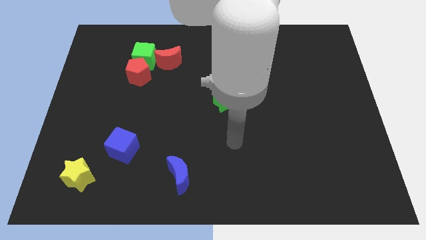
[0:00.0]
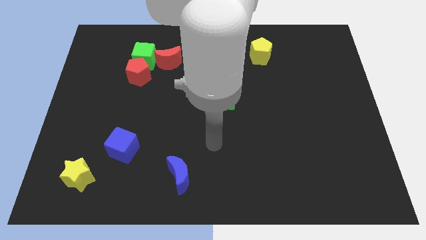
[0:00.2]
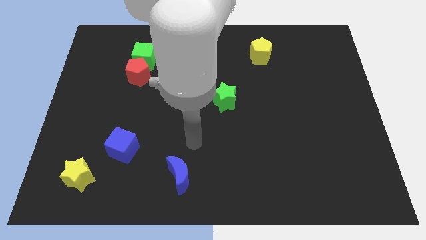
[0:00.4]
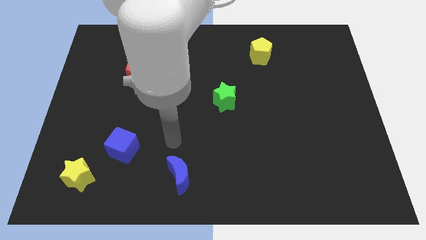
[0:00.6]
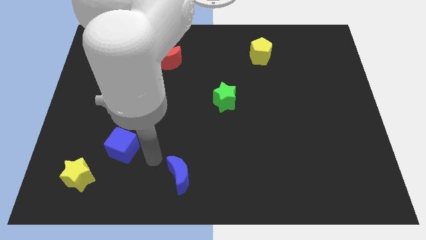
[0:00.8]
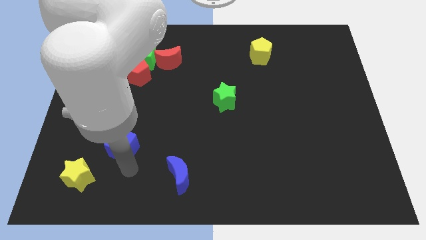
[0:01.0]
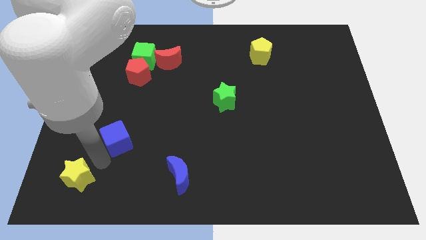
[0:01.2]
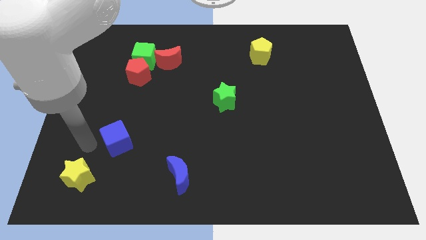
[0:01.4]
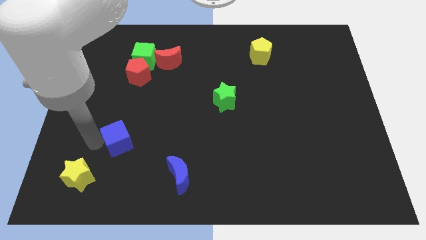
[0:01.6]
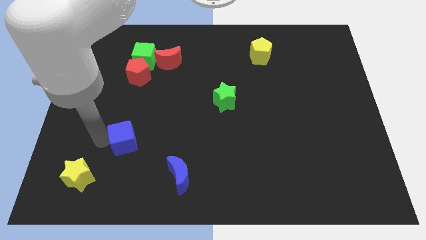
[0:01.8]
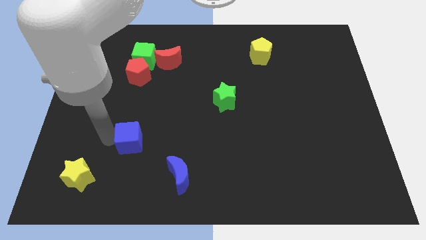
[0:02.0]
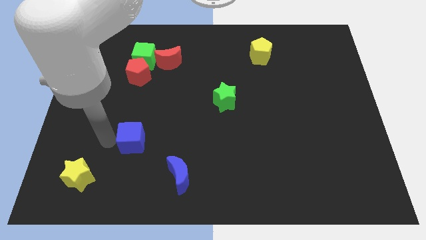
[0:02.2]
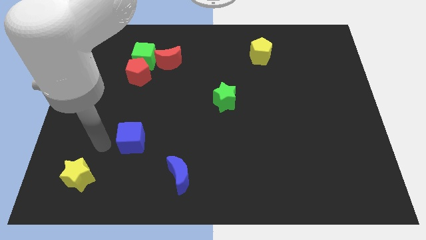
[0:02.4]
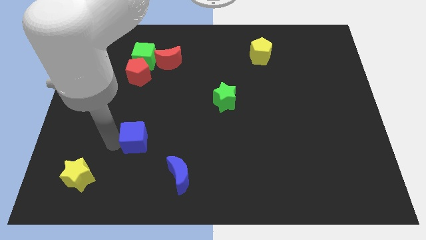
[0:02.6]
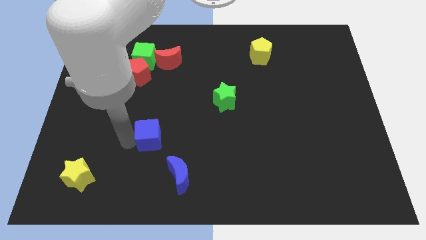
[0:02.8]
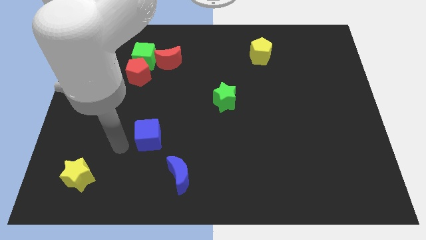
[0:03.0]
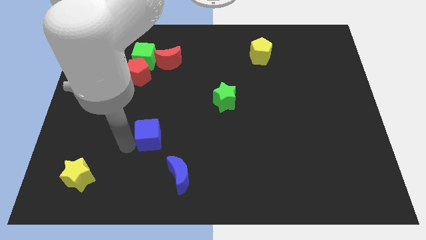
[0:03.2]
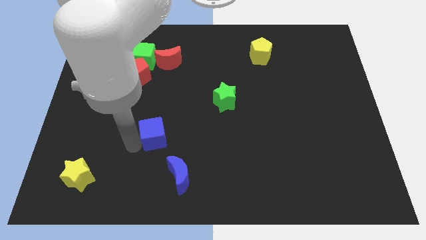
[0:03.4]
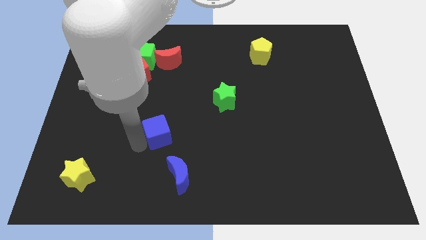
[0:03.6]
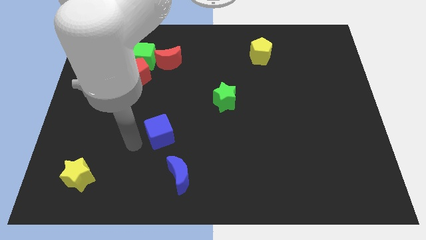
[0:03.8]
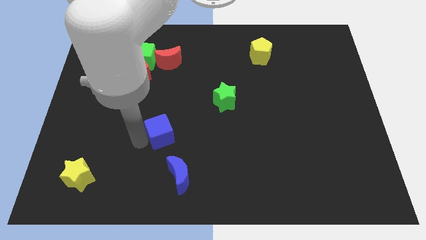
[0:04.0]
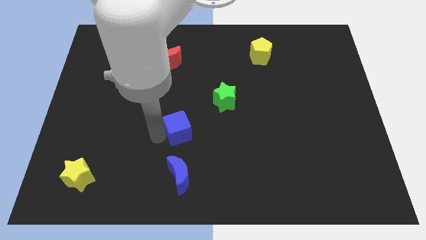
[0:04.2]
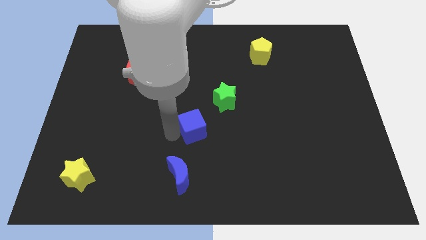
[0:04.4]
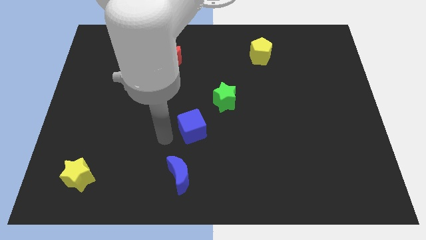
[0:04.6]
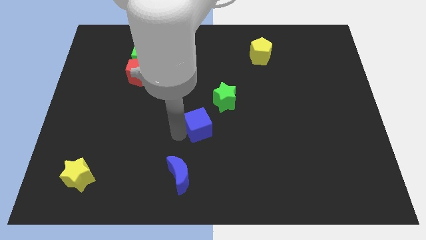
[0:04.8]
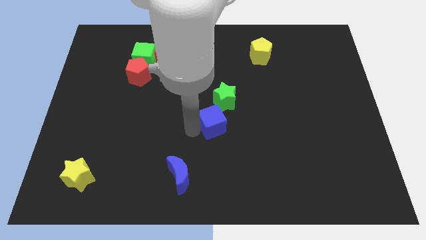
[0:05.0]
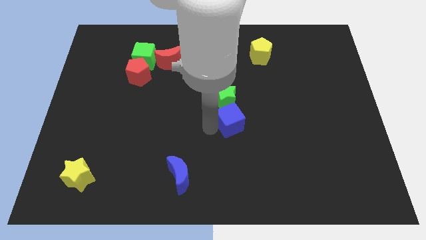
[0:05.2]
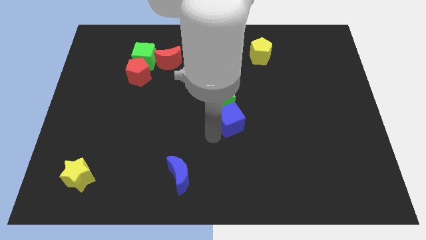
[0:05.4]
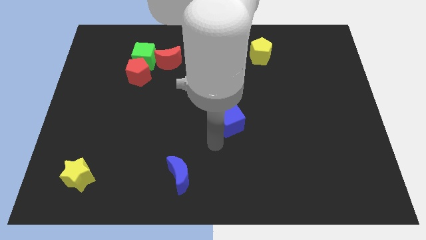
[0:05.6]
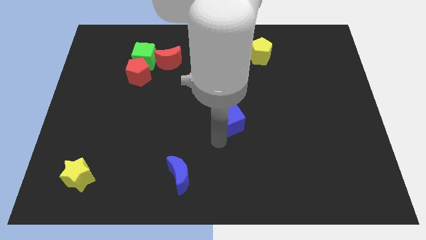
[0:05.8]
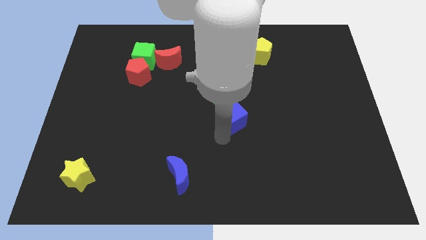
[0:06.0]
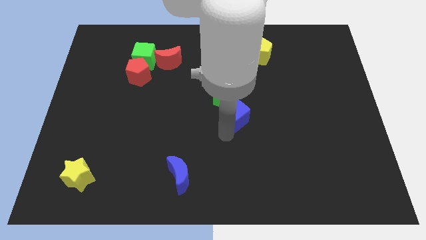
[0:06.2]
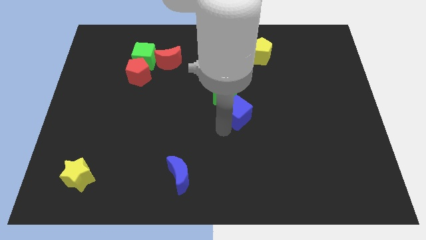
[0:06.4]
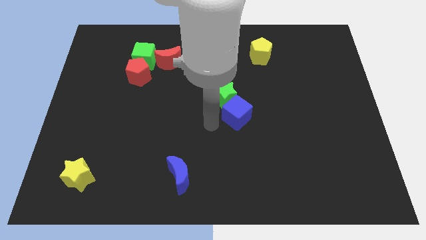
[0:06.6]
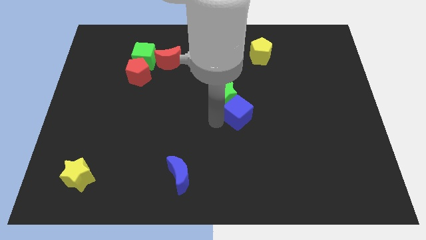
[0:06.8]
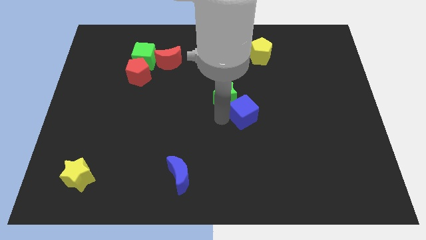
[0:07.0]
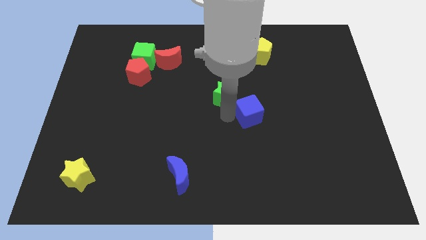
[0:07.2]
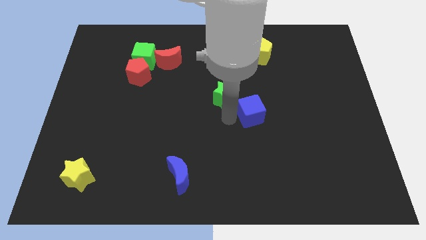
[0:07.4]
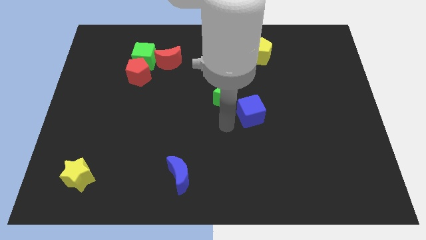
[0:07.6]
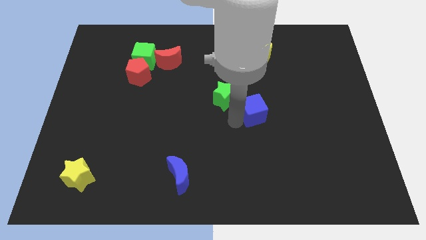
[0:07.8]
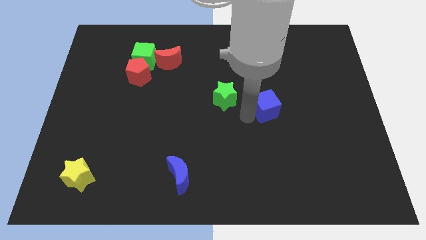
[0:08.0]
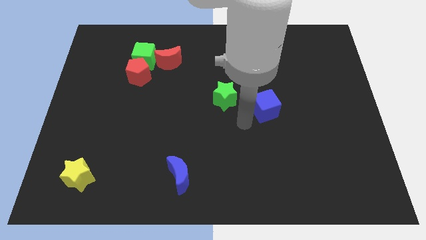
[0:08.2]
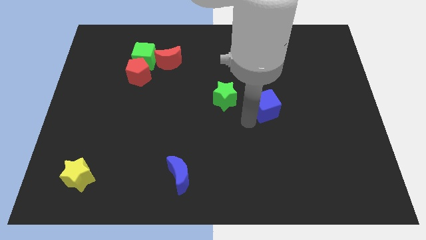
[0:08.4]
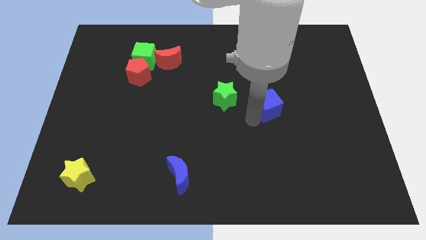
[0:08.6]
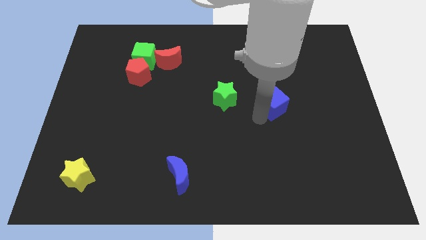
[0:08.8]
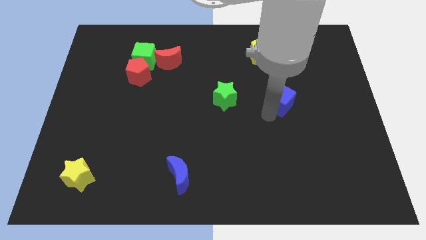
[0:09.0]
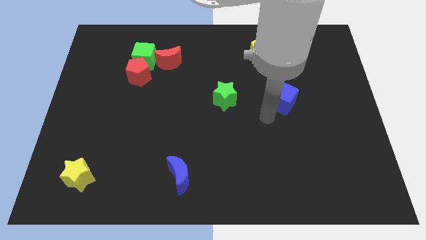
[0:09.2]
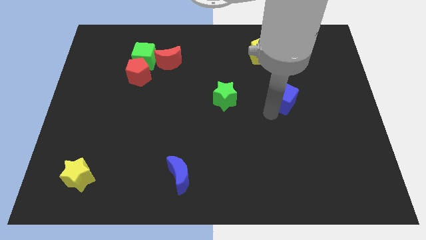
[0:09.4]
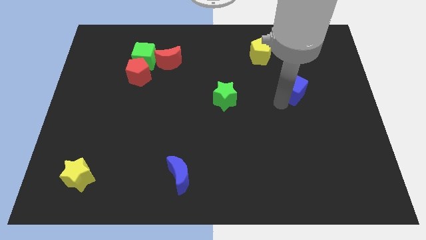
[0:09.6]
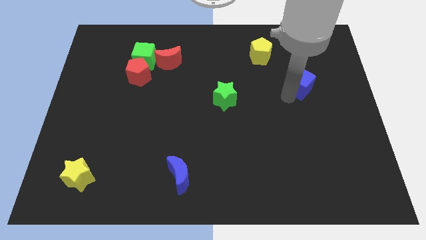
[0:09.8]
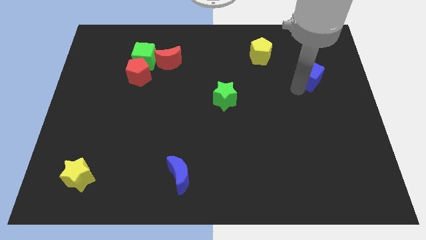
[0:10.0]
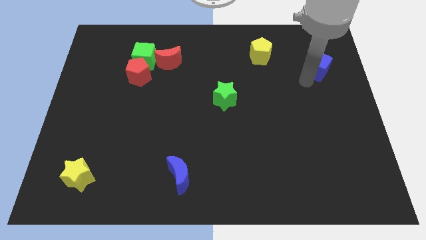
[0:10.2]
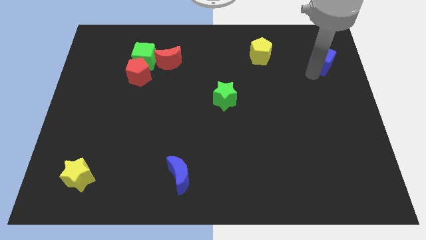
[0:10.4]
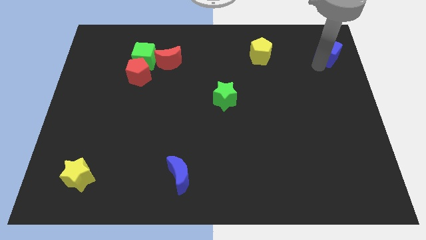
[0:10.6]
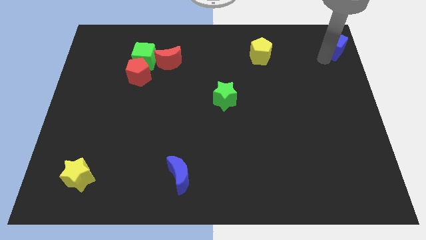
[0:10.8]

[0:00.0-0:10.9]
move the blue cube to the upper right corner

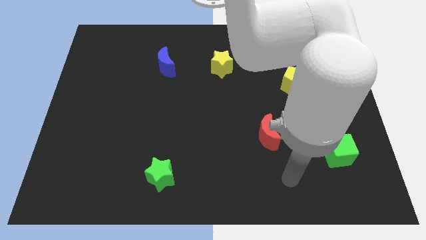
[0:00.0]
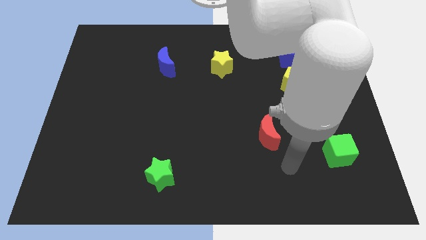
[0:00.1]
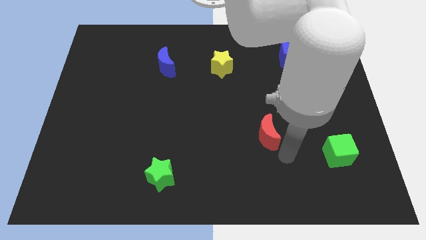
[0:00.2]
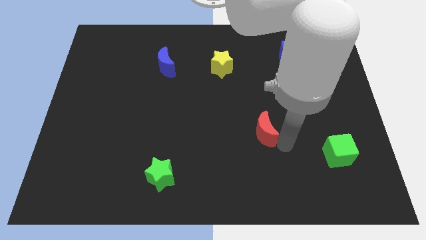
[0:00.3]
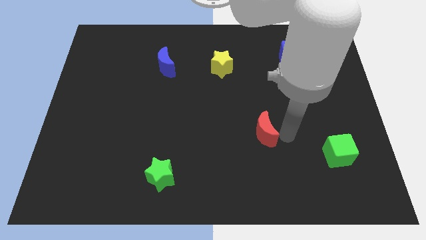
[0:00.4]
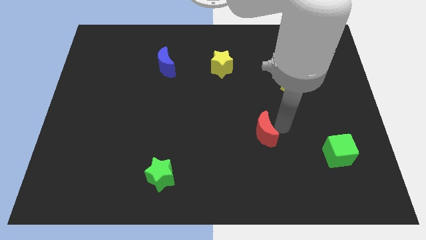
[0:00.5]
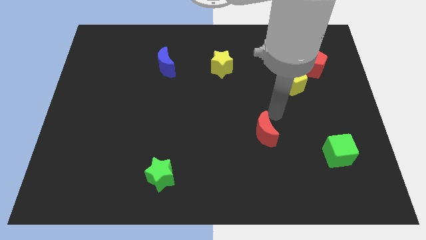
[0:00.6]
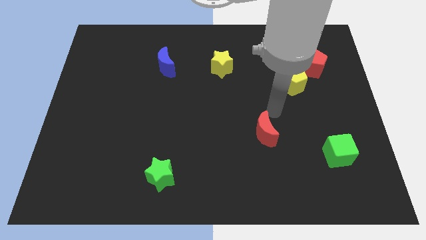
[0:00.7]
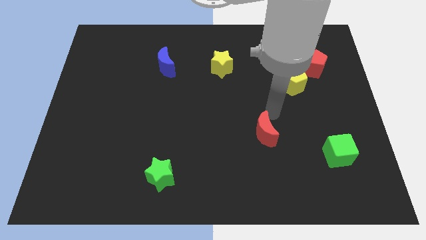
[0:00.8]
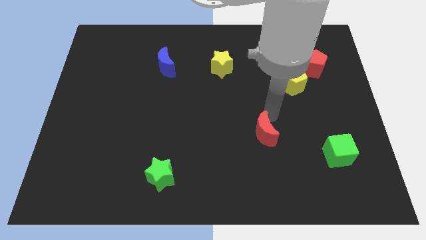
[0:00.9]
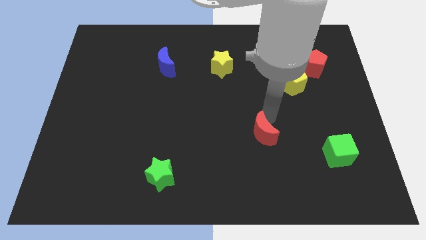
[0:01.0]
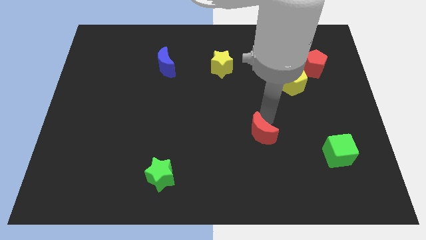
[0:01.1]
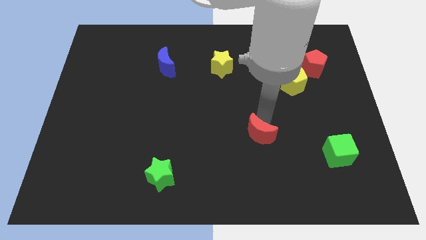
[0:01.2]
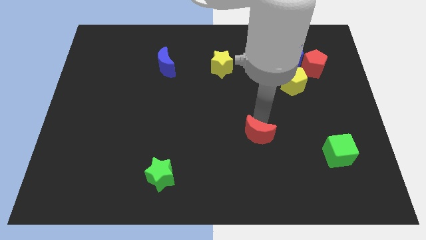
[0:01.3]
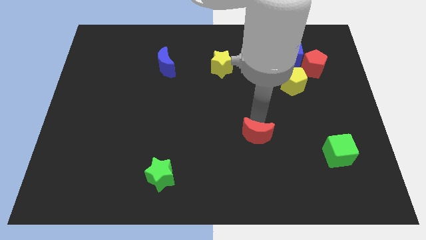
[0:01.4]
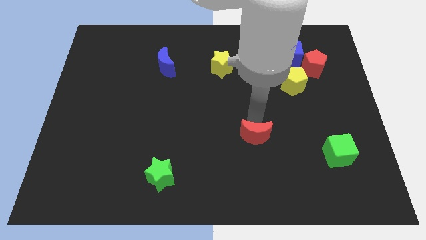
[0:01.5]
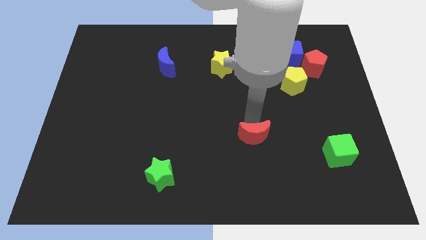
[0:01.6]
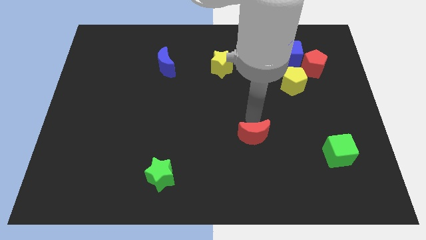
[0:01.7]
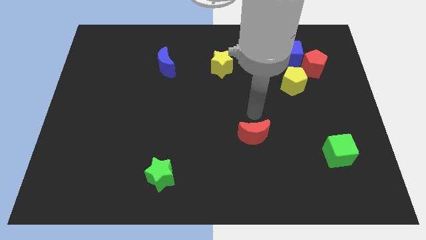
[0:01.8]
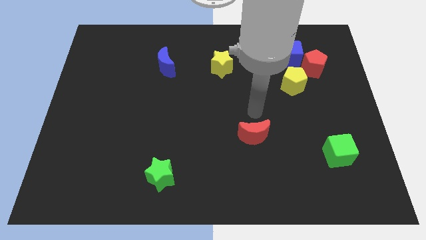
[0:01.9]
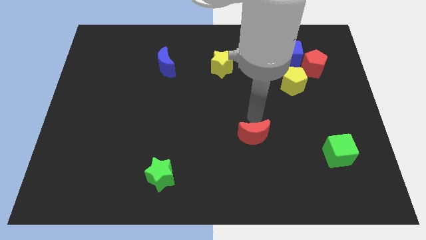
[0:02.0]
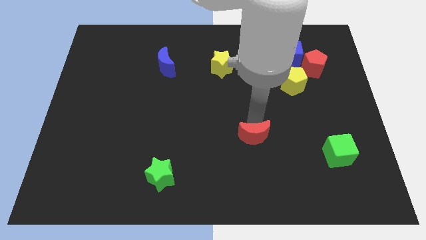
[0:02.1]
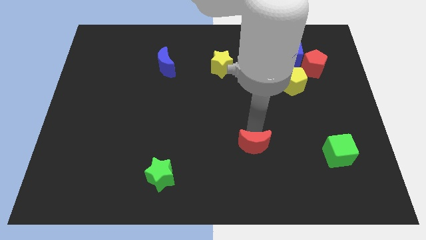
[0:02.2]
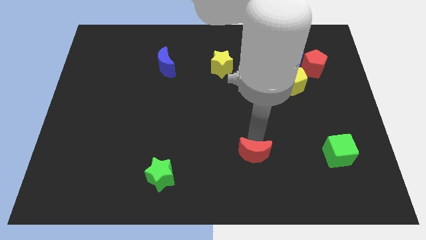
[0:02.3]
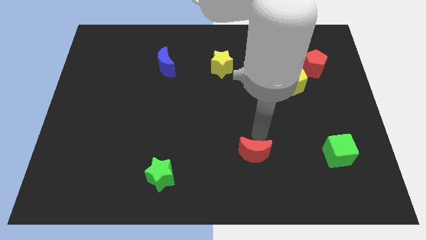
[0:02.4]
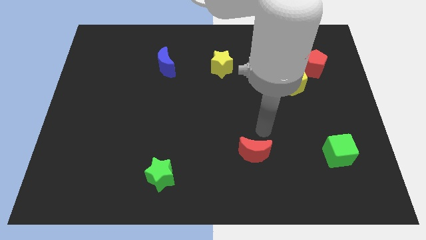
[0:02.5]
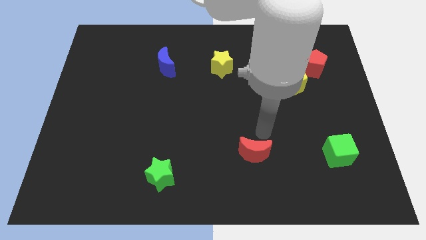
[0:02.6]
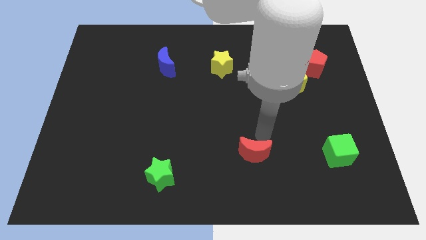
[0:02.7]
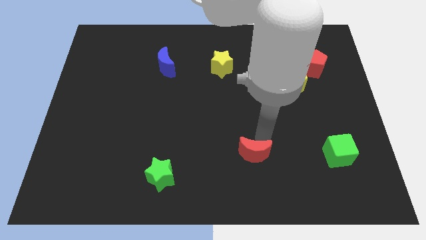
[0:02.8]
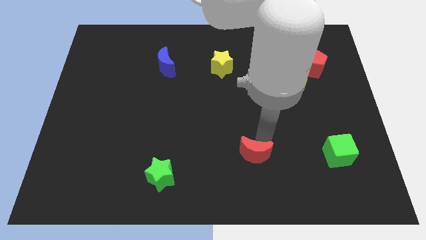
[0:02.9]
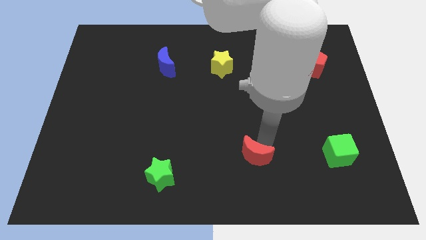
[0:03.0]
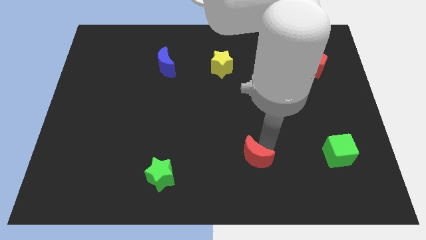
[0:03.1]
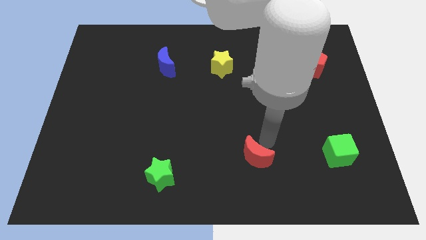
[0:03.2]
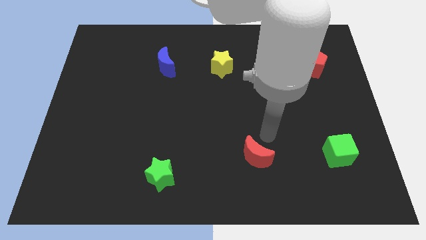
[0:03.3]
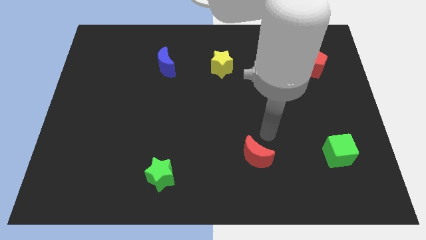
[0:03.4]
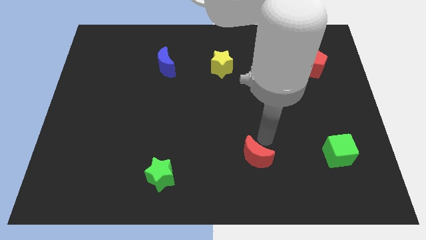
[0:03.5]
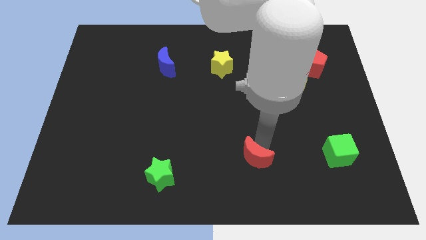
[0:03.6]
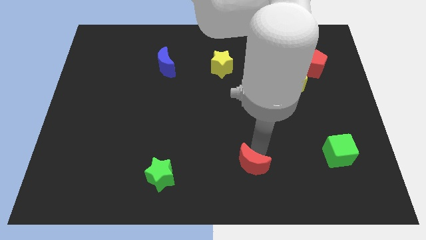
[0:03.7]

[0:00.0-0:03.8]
put the red moon to the bottom side
